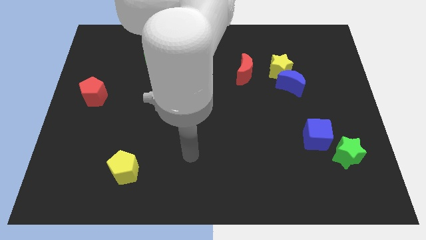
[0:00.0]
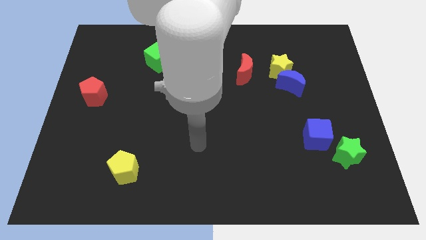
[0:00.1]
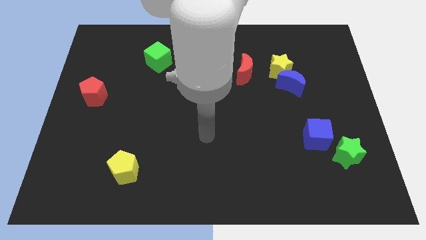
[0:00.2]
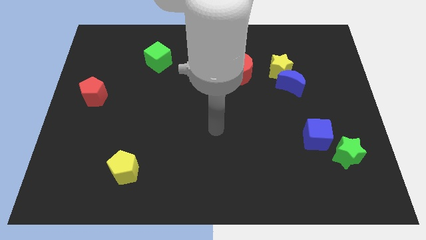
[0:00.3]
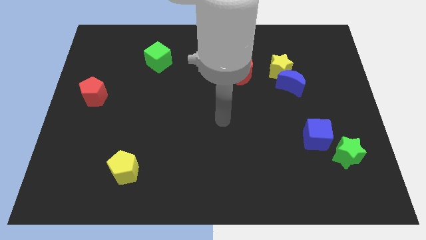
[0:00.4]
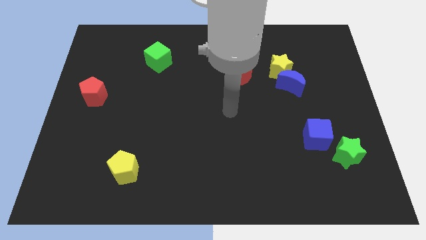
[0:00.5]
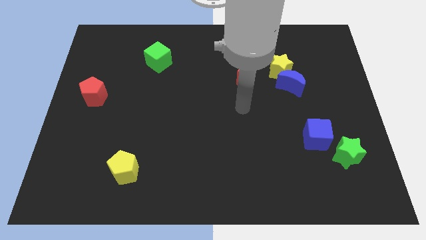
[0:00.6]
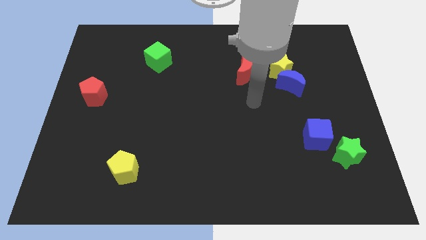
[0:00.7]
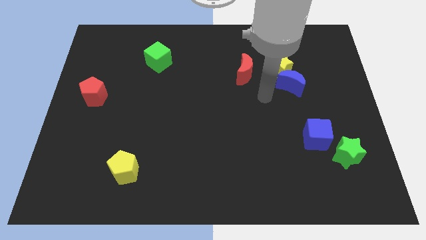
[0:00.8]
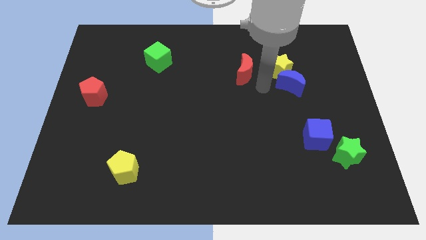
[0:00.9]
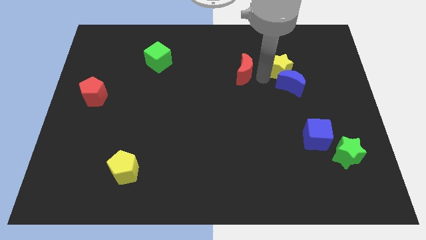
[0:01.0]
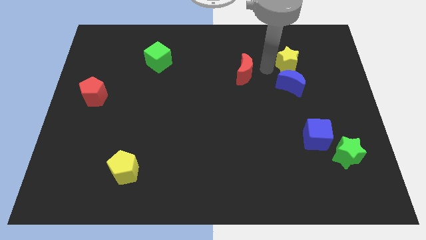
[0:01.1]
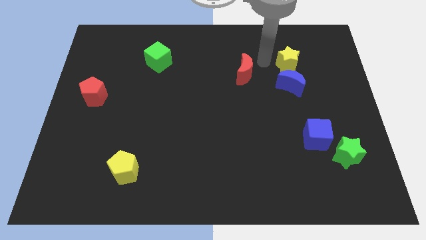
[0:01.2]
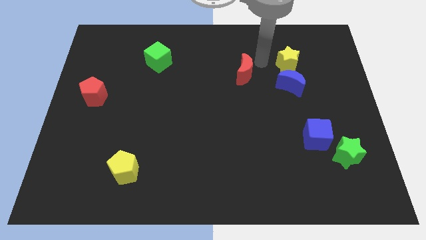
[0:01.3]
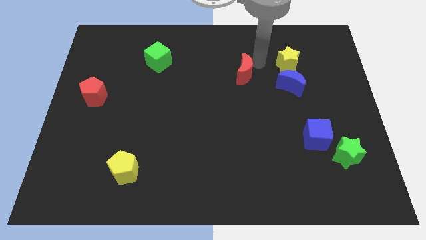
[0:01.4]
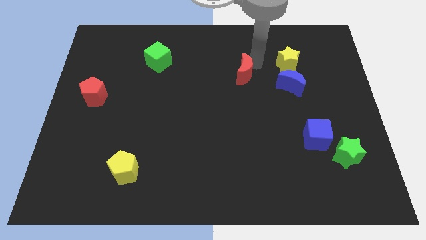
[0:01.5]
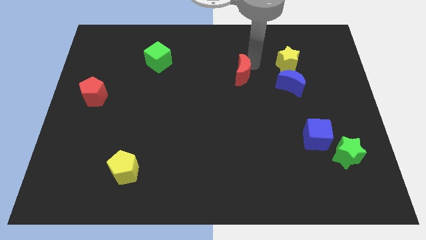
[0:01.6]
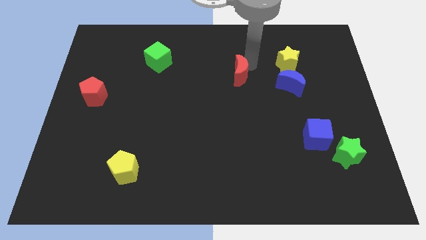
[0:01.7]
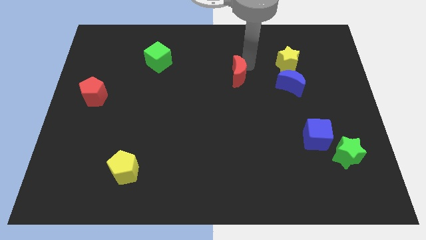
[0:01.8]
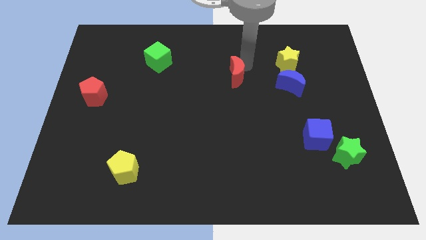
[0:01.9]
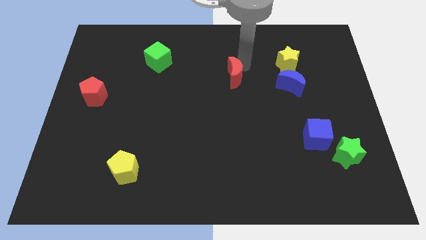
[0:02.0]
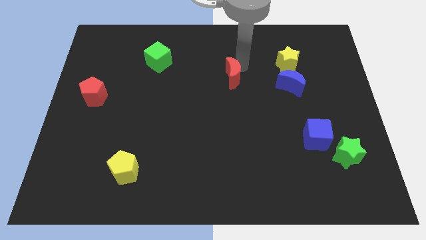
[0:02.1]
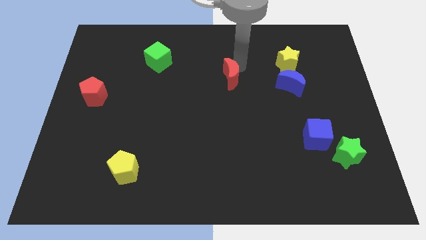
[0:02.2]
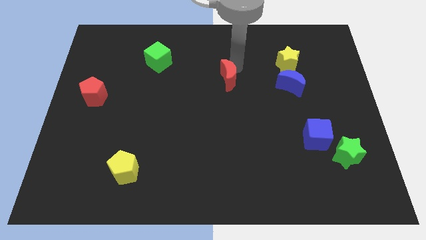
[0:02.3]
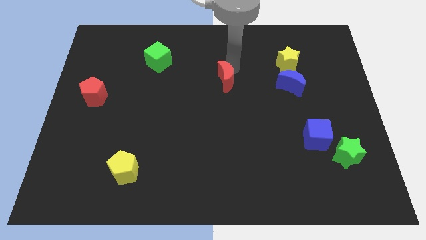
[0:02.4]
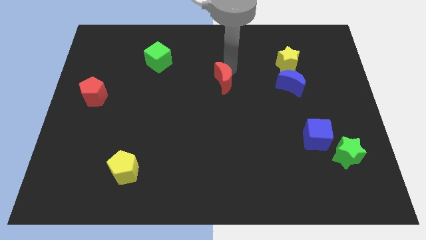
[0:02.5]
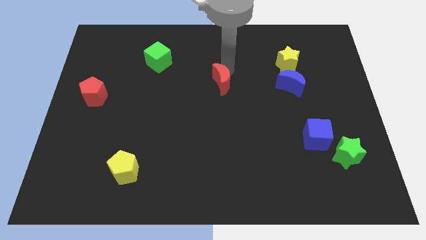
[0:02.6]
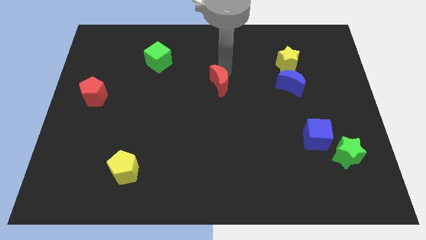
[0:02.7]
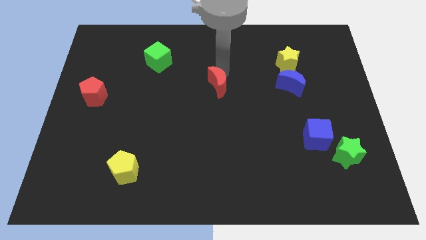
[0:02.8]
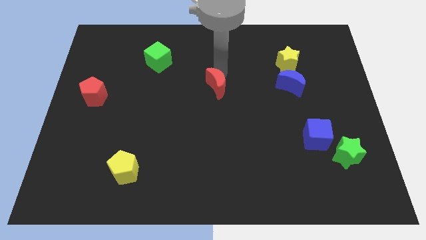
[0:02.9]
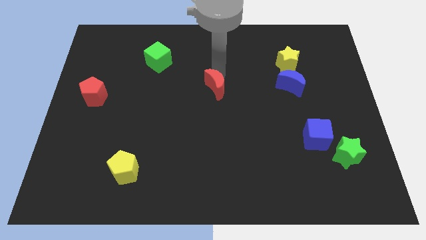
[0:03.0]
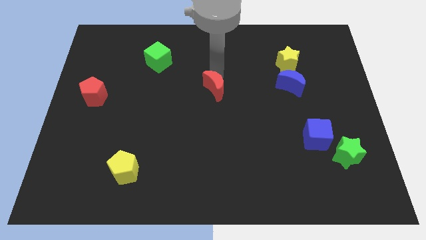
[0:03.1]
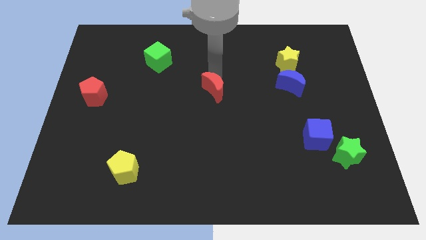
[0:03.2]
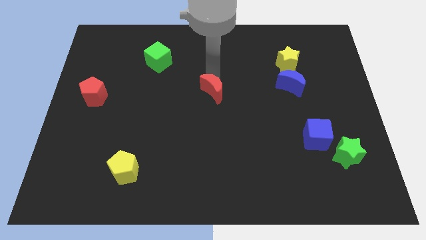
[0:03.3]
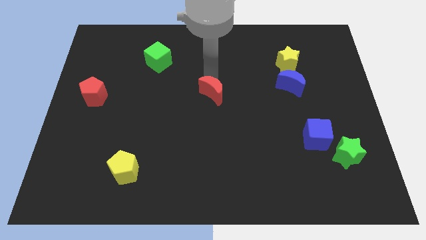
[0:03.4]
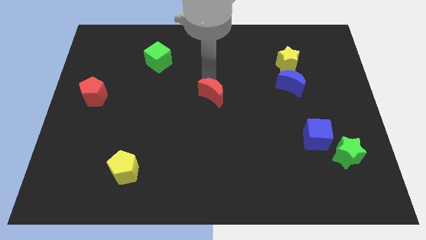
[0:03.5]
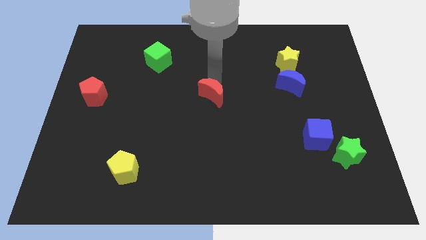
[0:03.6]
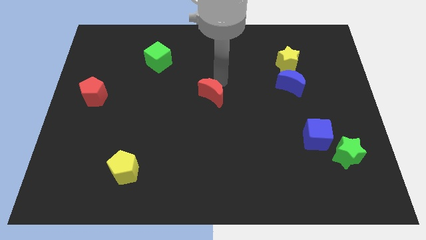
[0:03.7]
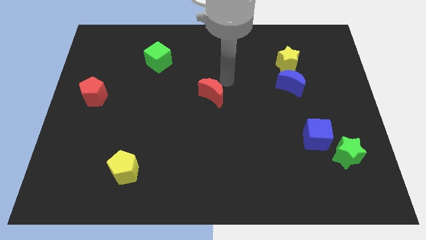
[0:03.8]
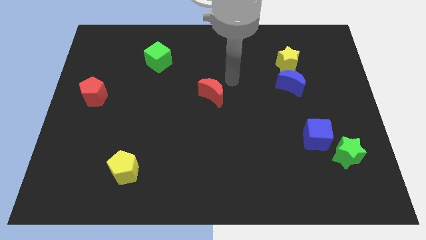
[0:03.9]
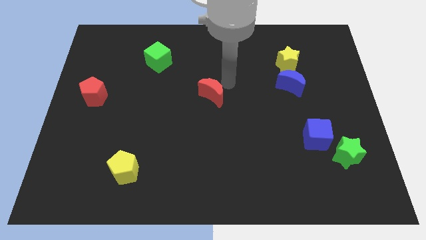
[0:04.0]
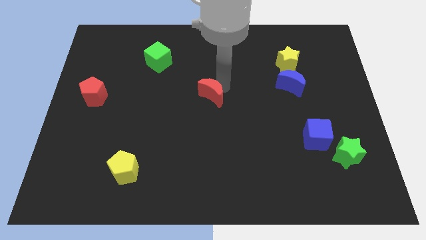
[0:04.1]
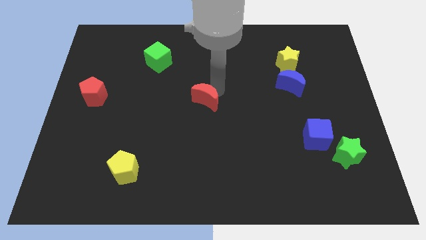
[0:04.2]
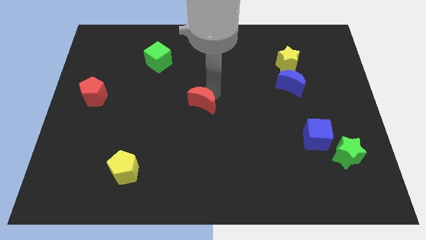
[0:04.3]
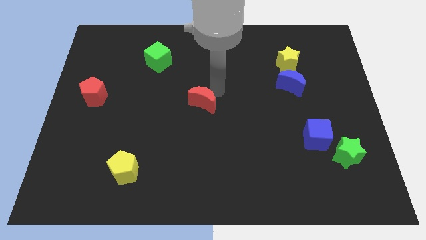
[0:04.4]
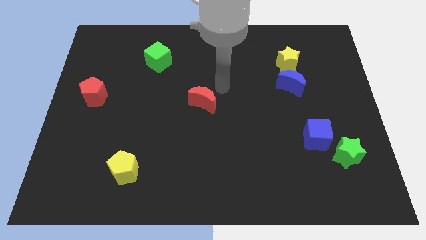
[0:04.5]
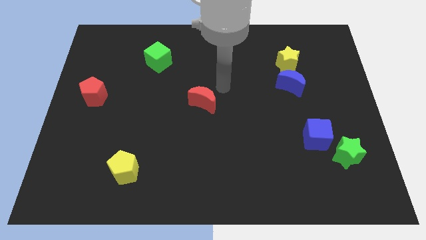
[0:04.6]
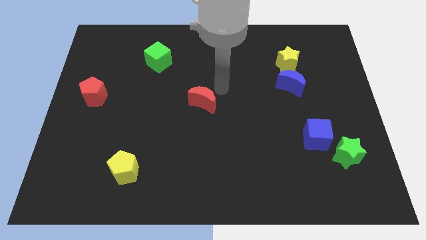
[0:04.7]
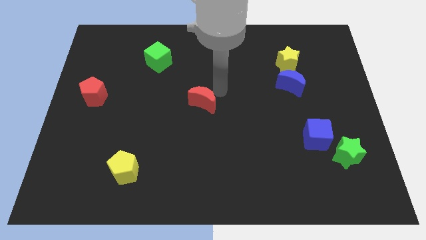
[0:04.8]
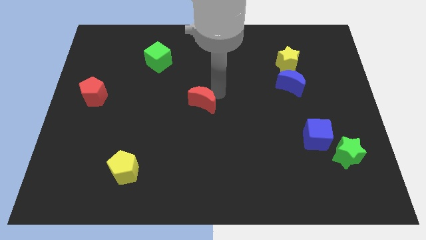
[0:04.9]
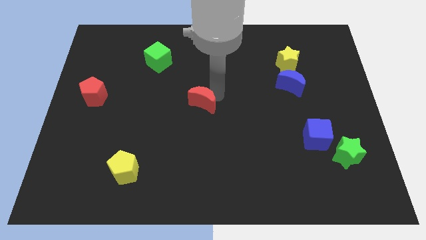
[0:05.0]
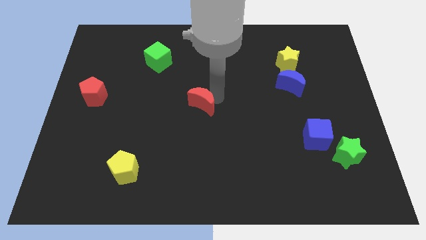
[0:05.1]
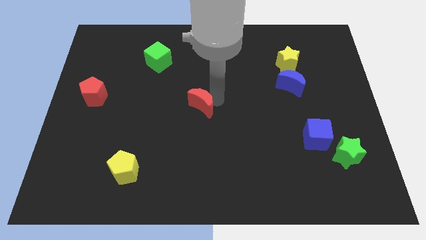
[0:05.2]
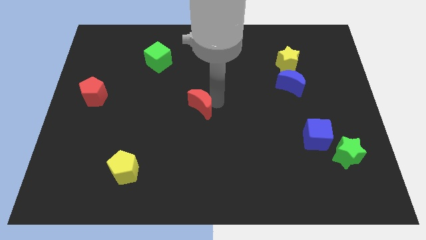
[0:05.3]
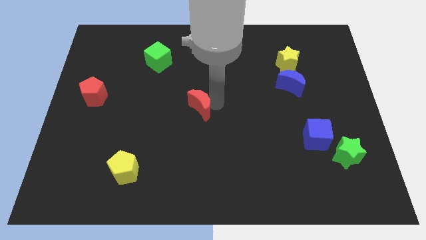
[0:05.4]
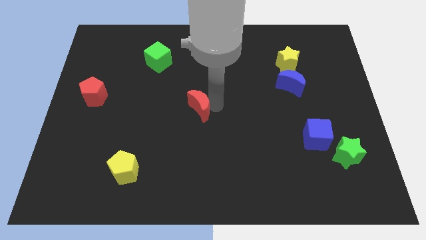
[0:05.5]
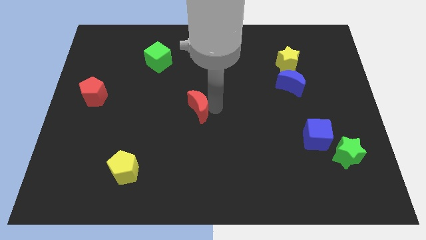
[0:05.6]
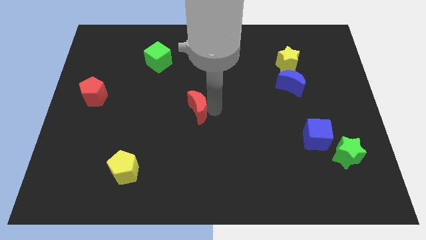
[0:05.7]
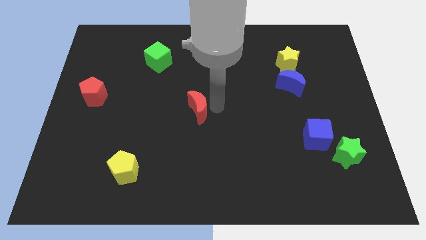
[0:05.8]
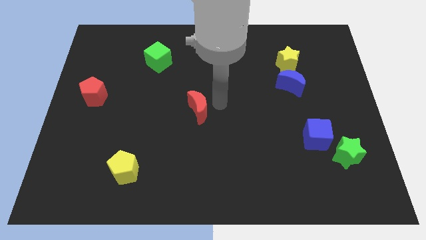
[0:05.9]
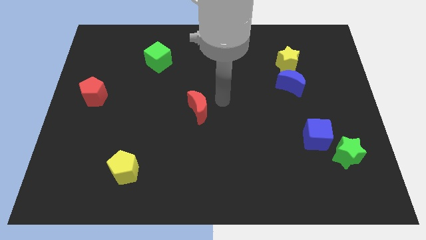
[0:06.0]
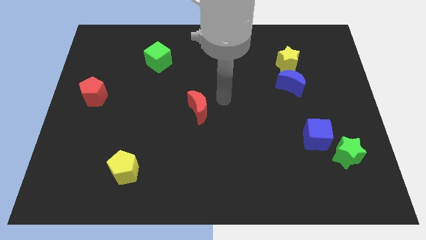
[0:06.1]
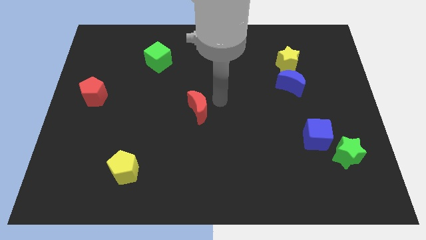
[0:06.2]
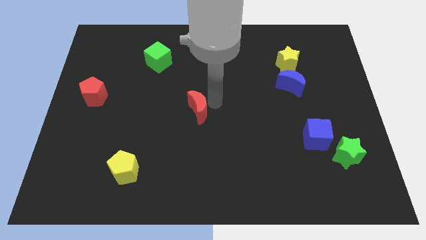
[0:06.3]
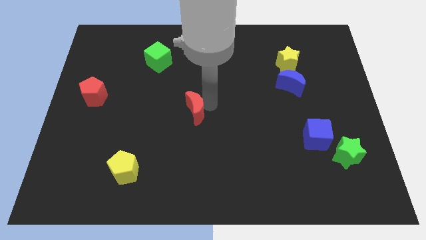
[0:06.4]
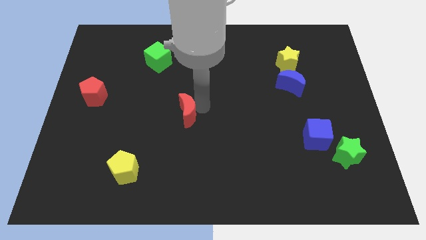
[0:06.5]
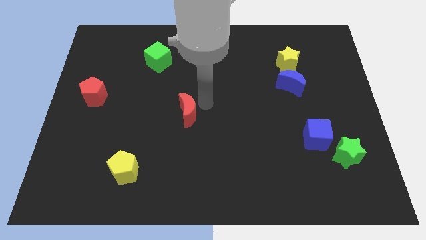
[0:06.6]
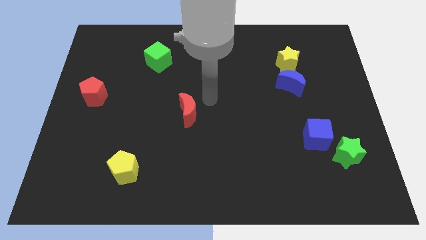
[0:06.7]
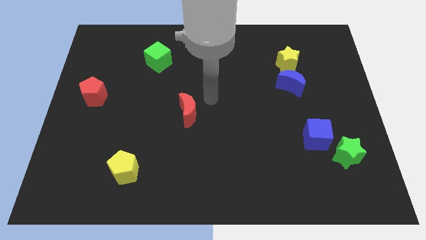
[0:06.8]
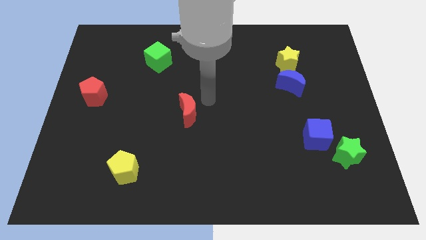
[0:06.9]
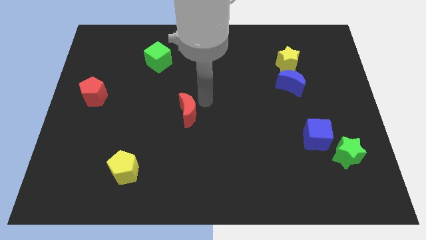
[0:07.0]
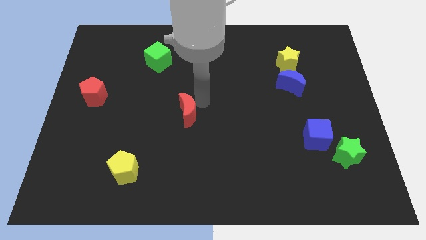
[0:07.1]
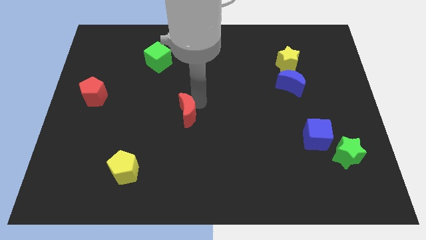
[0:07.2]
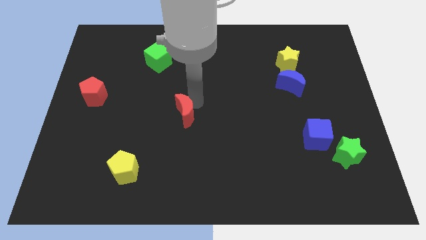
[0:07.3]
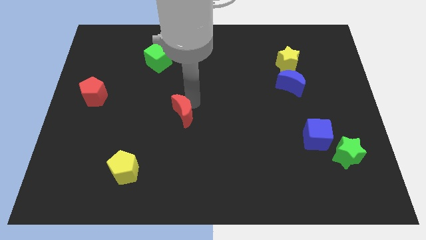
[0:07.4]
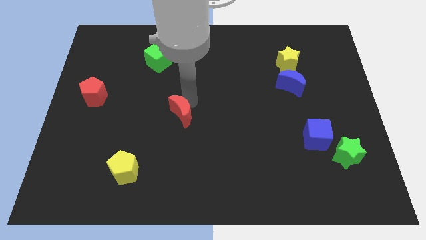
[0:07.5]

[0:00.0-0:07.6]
slide the red moon down and left

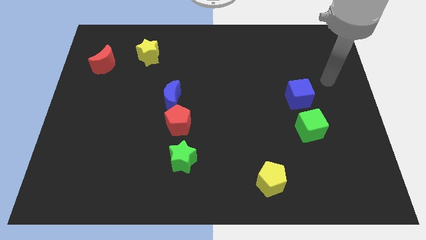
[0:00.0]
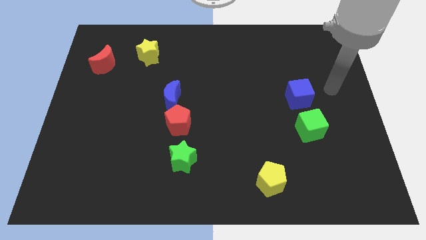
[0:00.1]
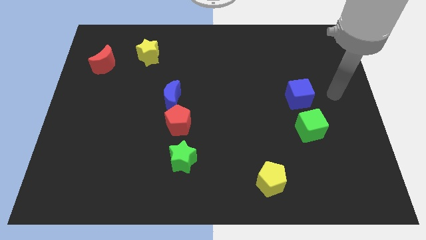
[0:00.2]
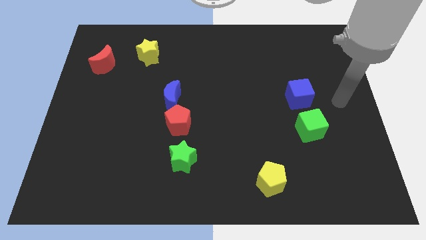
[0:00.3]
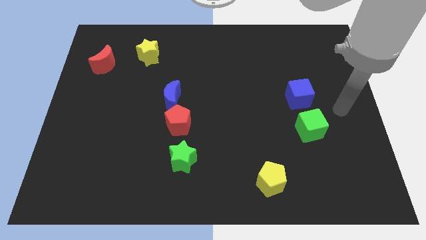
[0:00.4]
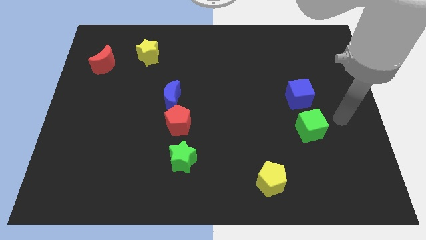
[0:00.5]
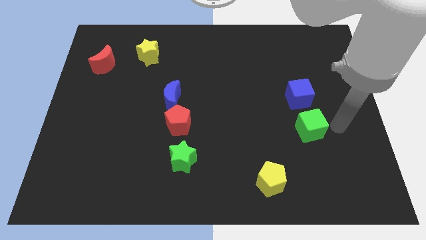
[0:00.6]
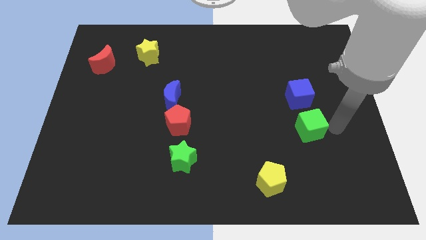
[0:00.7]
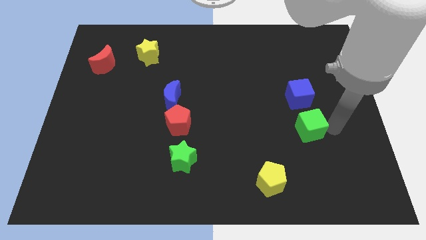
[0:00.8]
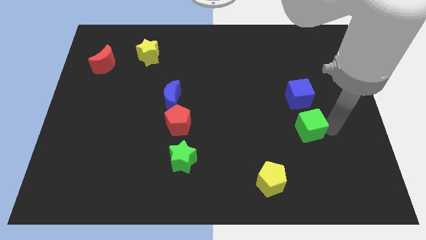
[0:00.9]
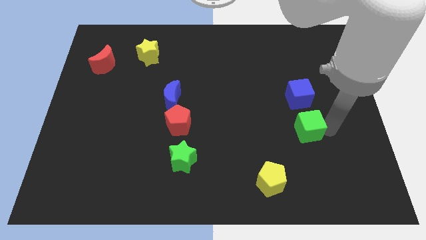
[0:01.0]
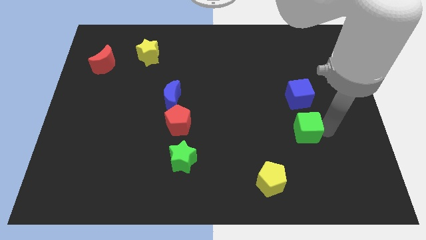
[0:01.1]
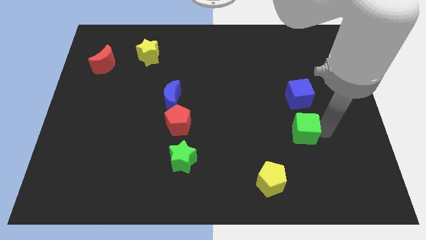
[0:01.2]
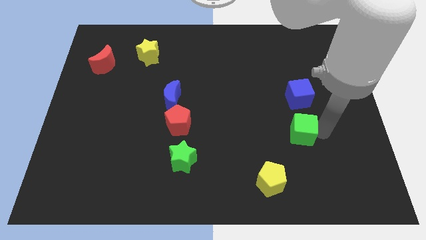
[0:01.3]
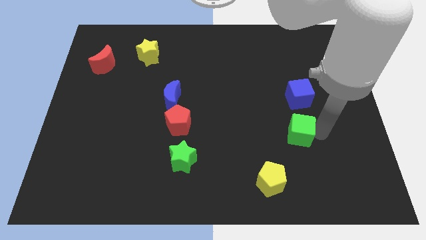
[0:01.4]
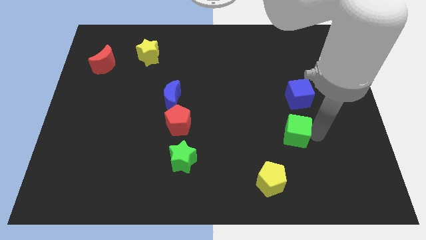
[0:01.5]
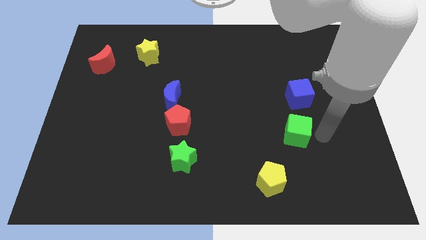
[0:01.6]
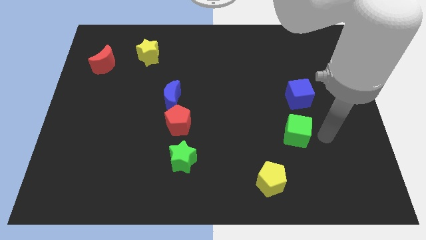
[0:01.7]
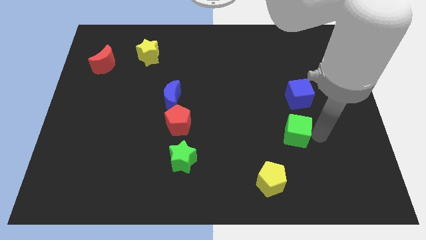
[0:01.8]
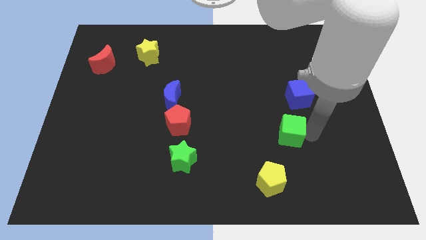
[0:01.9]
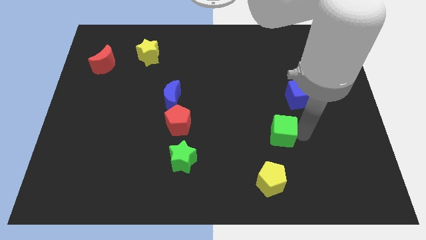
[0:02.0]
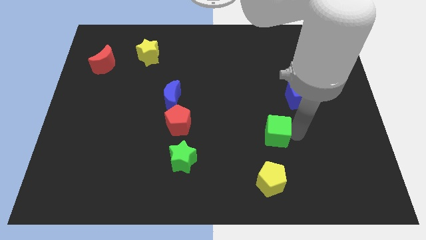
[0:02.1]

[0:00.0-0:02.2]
slide the green cube to the left a little
